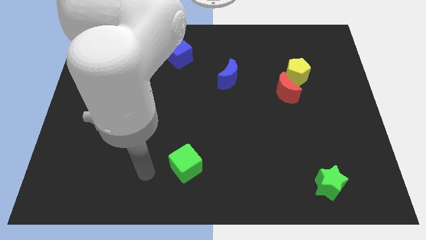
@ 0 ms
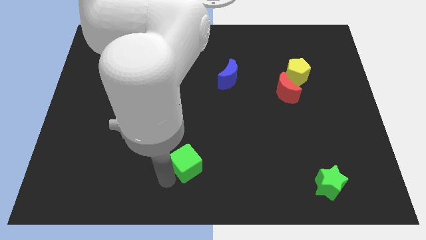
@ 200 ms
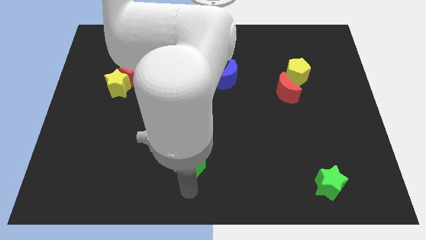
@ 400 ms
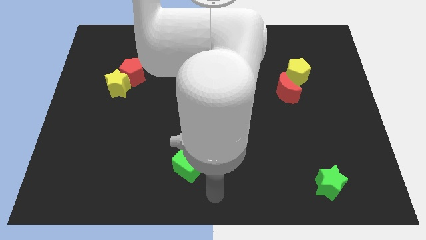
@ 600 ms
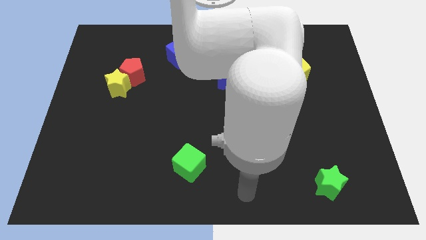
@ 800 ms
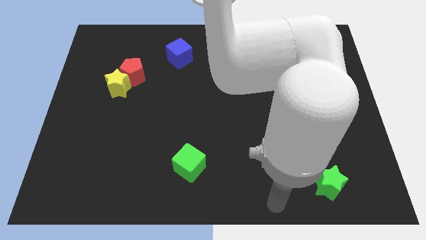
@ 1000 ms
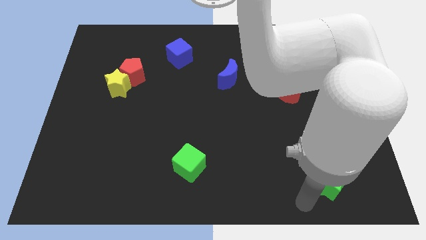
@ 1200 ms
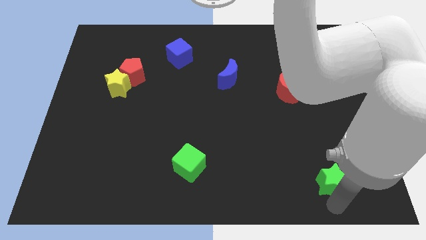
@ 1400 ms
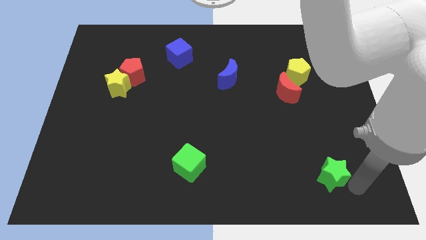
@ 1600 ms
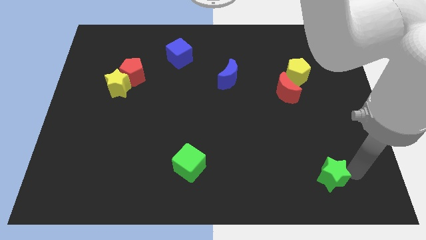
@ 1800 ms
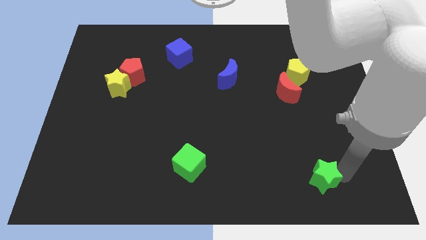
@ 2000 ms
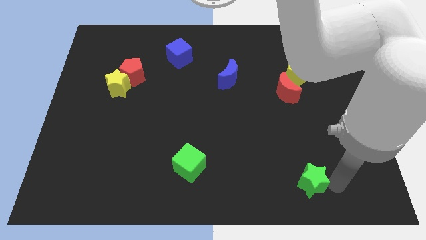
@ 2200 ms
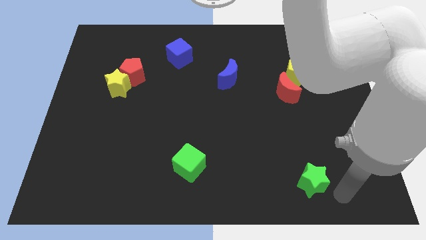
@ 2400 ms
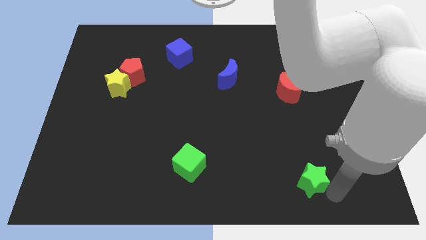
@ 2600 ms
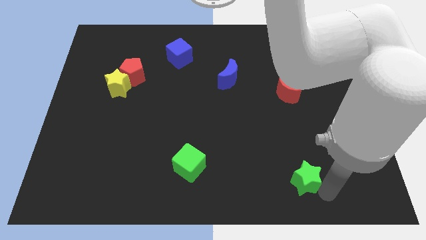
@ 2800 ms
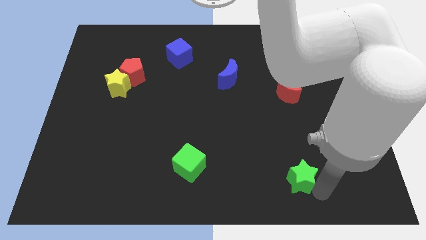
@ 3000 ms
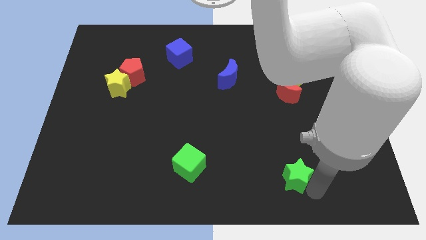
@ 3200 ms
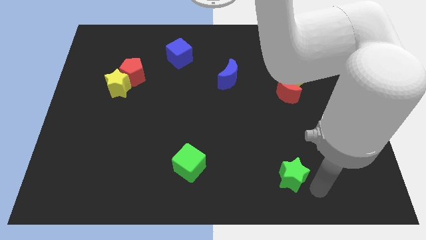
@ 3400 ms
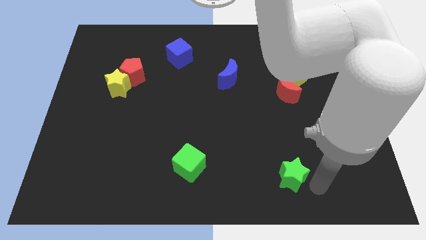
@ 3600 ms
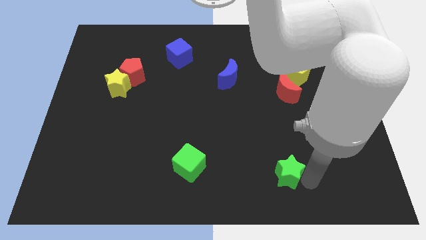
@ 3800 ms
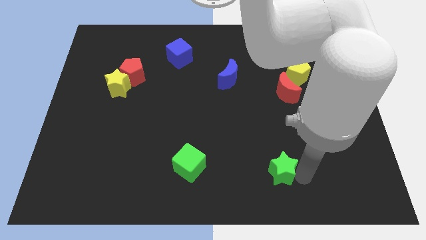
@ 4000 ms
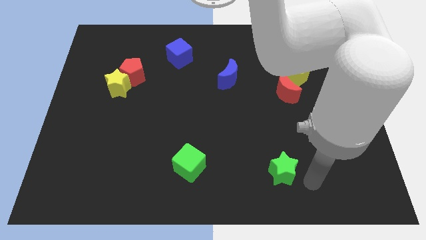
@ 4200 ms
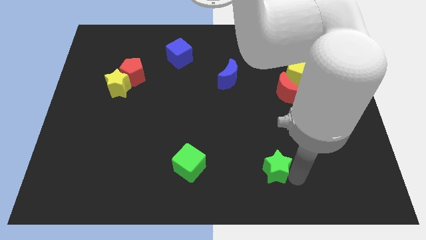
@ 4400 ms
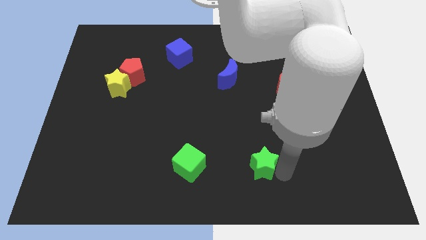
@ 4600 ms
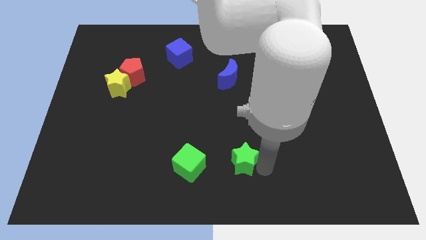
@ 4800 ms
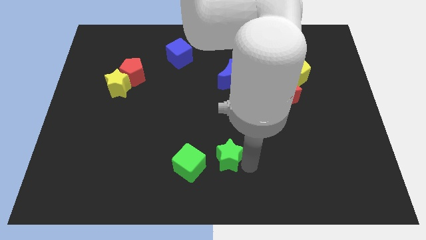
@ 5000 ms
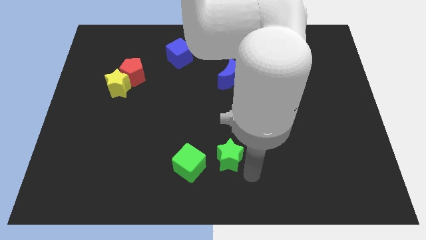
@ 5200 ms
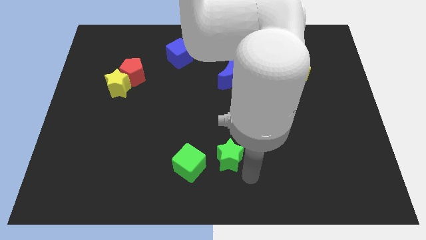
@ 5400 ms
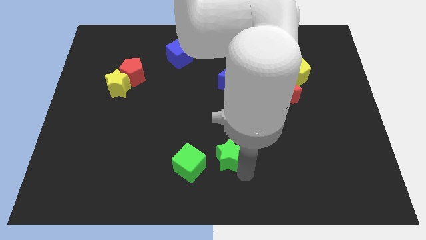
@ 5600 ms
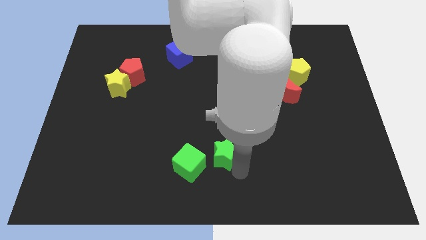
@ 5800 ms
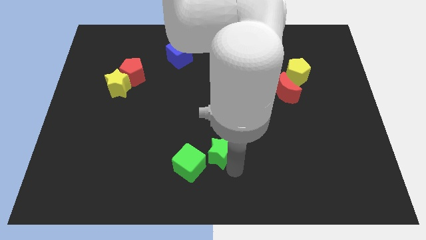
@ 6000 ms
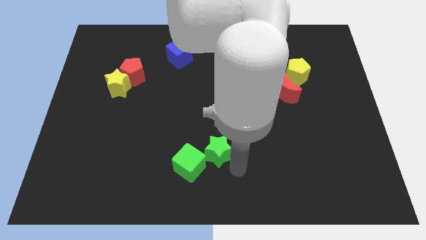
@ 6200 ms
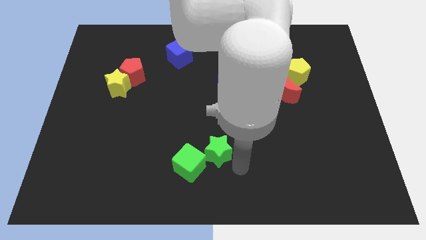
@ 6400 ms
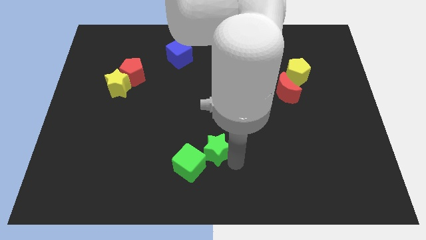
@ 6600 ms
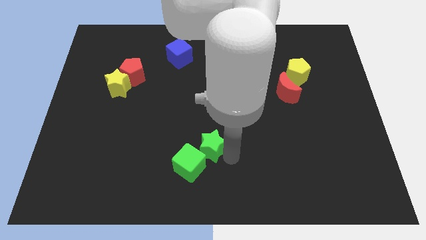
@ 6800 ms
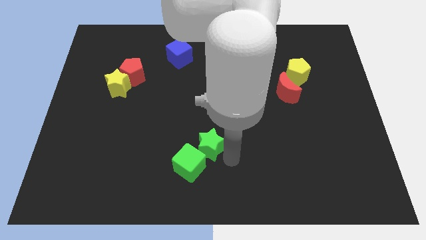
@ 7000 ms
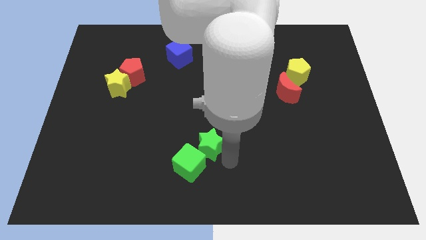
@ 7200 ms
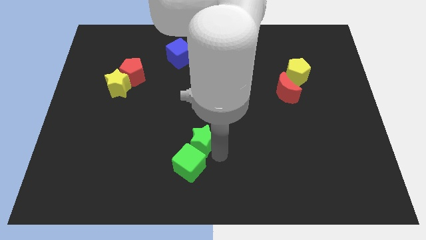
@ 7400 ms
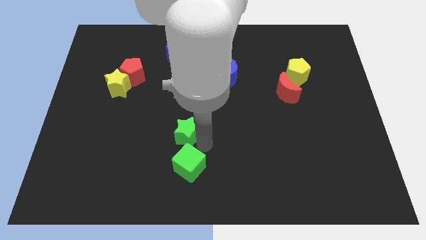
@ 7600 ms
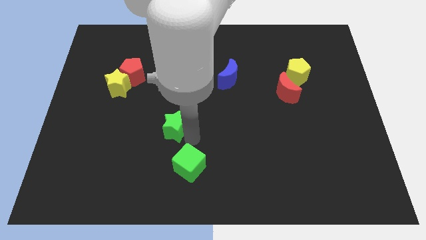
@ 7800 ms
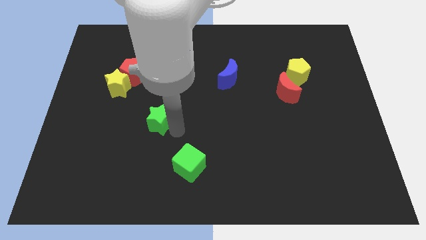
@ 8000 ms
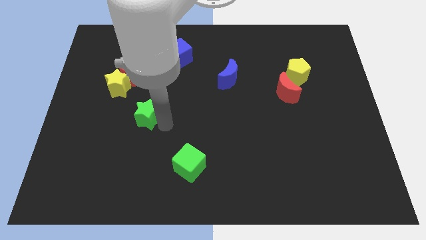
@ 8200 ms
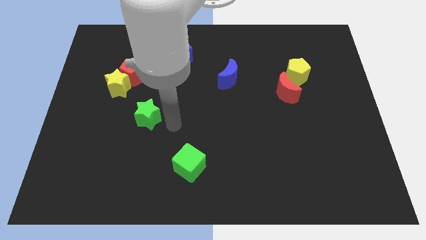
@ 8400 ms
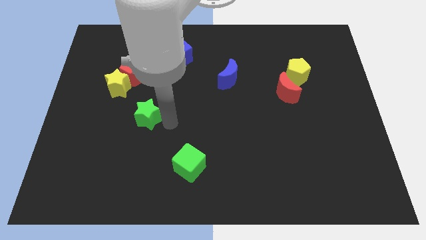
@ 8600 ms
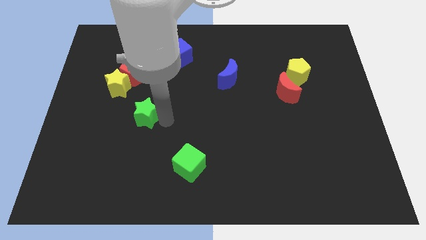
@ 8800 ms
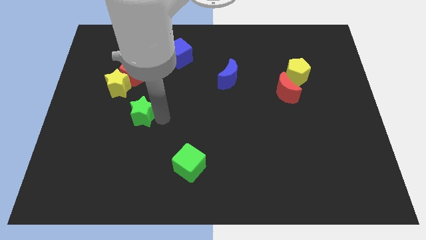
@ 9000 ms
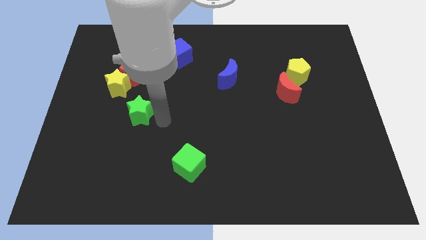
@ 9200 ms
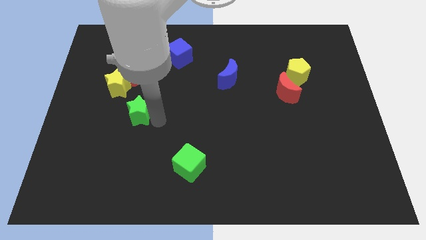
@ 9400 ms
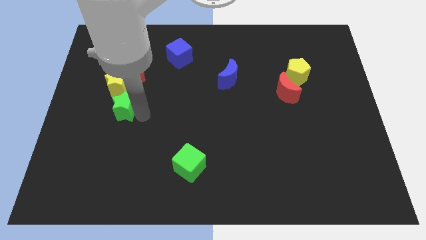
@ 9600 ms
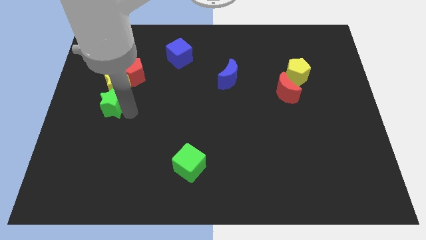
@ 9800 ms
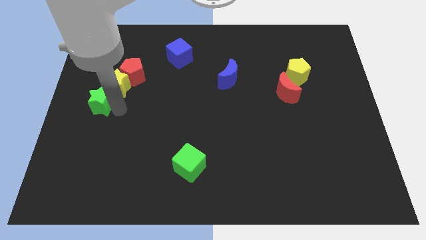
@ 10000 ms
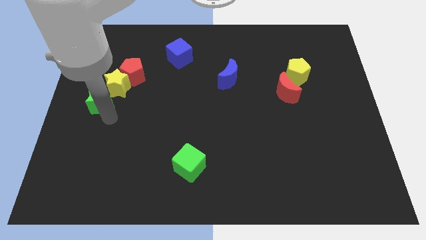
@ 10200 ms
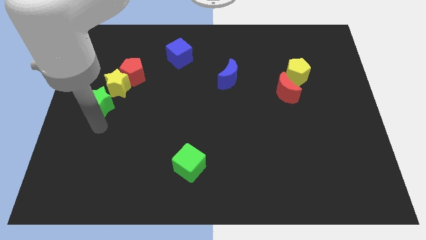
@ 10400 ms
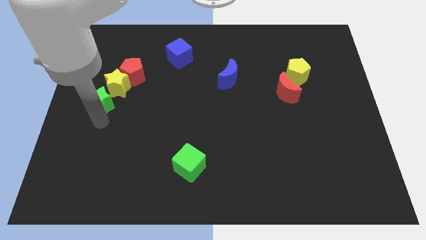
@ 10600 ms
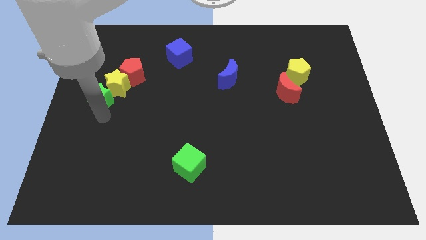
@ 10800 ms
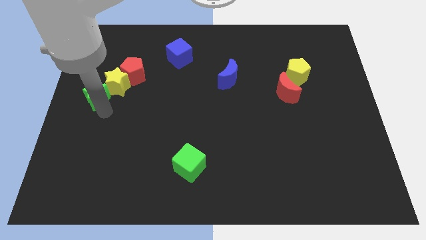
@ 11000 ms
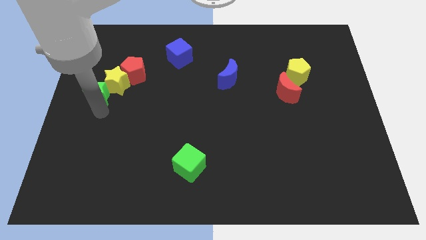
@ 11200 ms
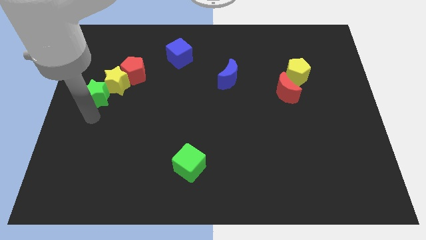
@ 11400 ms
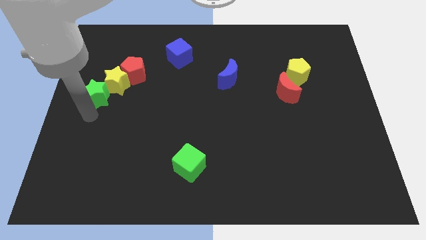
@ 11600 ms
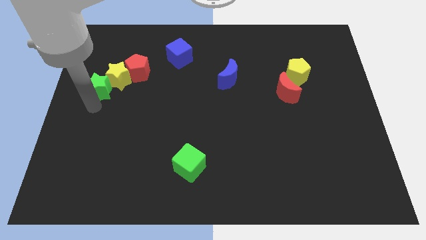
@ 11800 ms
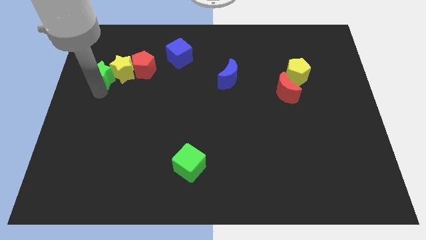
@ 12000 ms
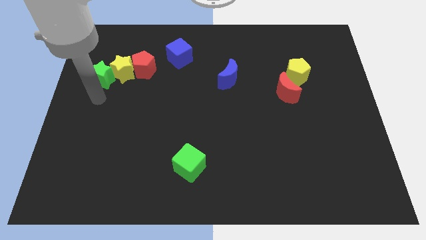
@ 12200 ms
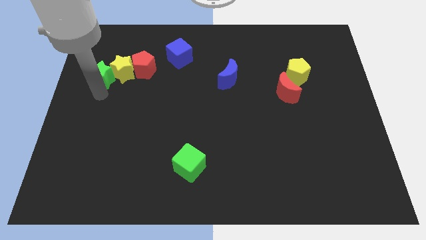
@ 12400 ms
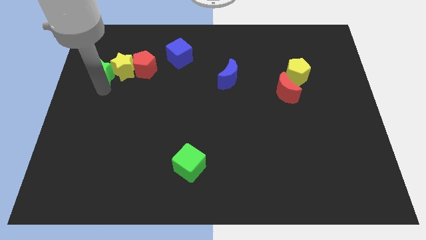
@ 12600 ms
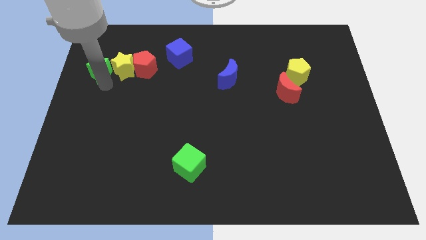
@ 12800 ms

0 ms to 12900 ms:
put the green star to the top left side of the yellow star
